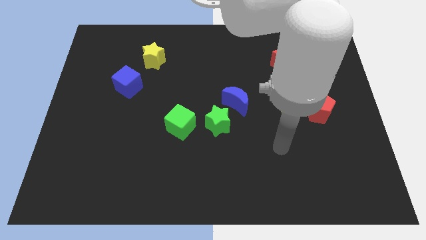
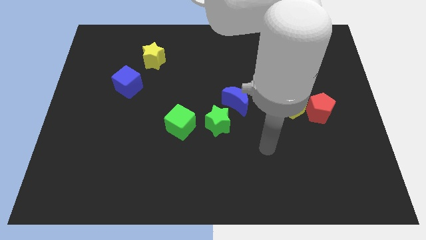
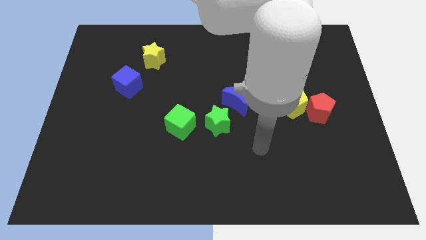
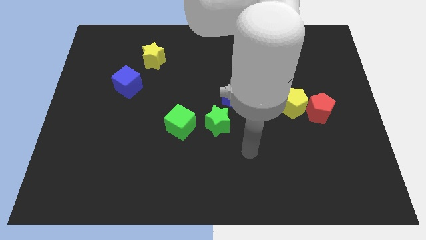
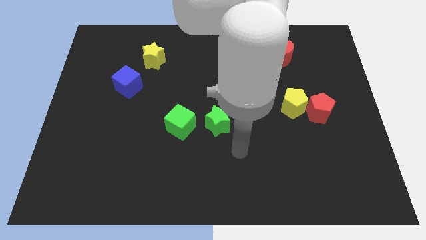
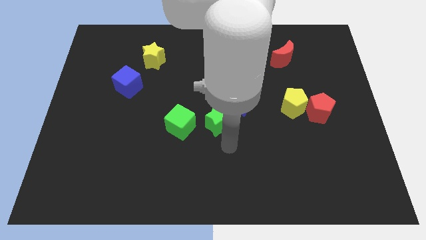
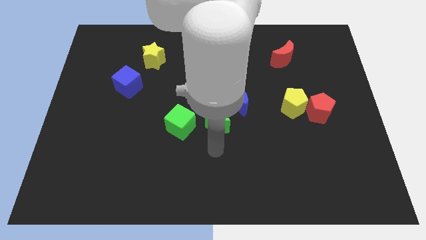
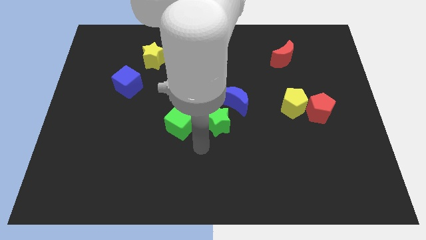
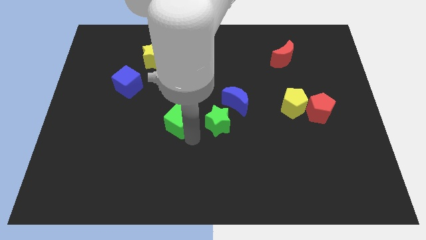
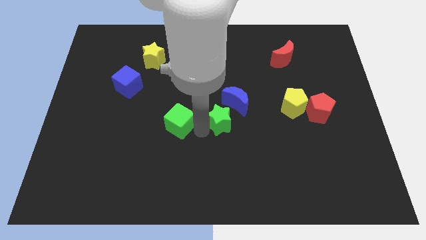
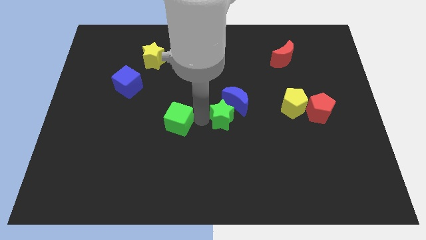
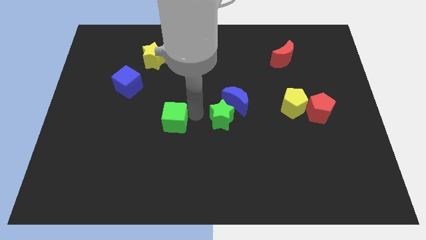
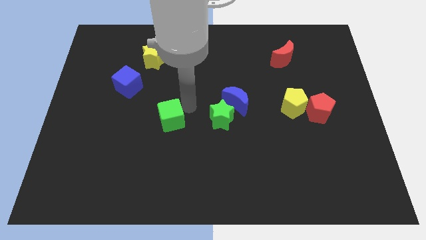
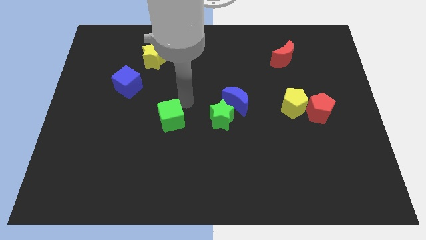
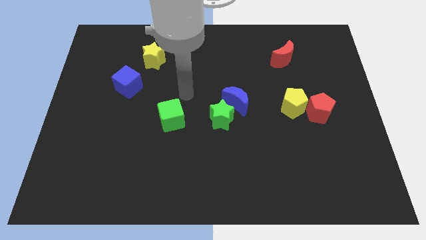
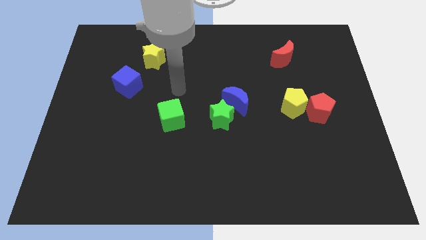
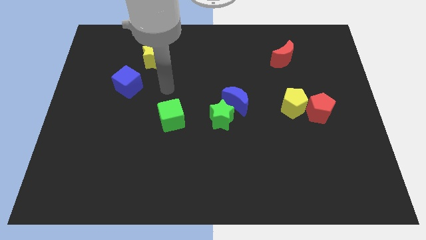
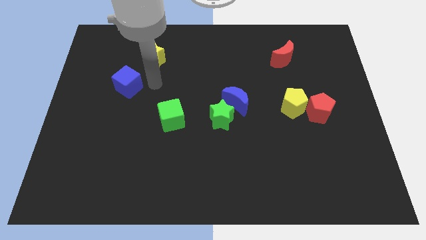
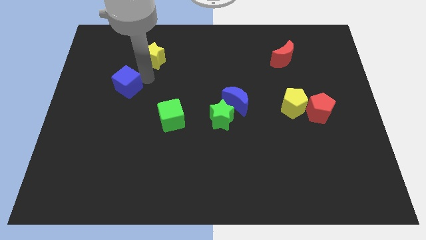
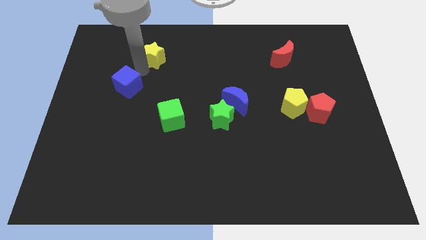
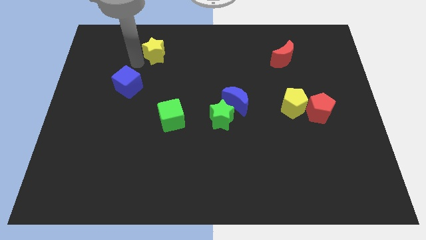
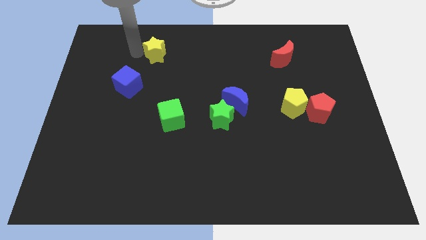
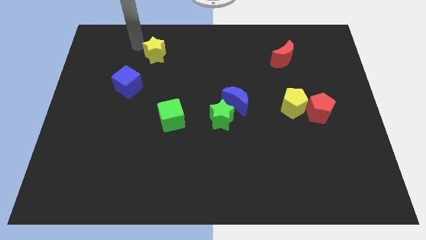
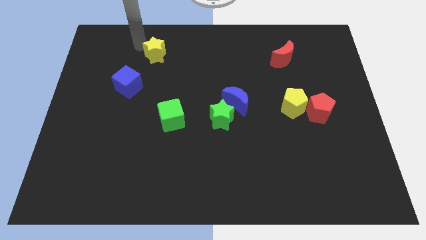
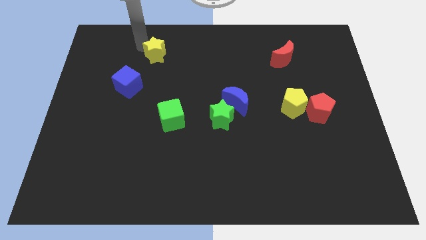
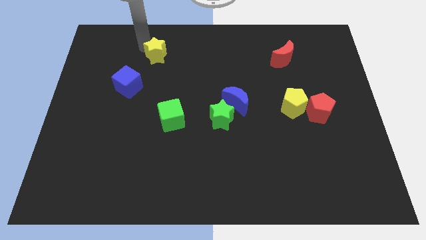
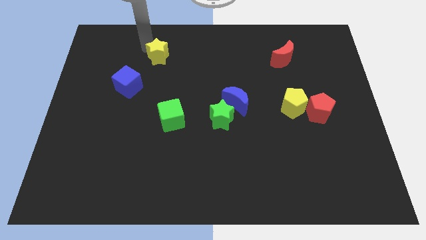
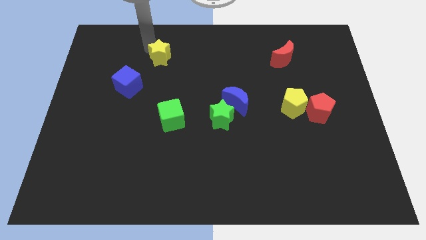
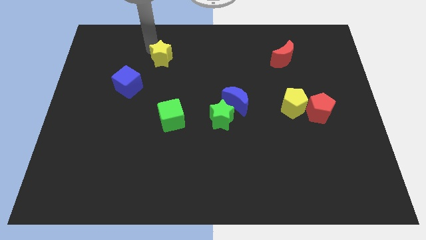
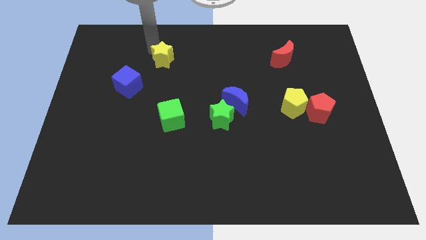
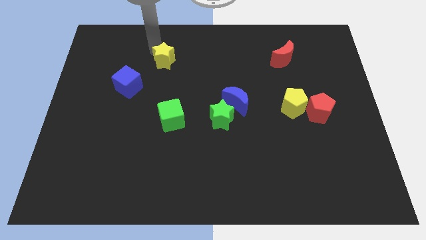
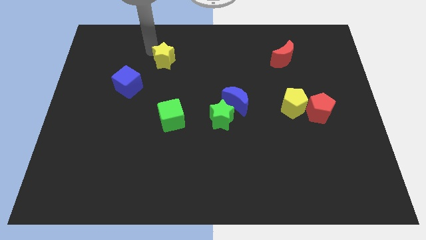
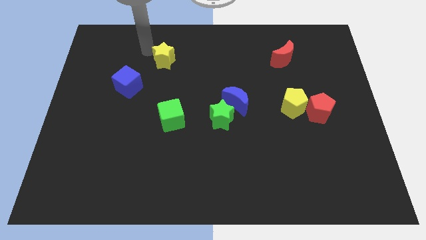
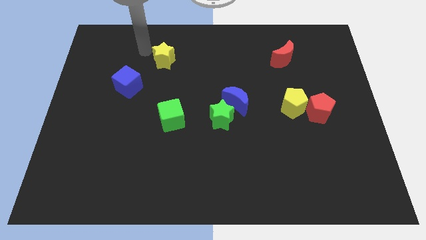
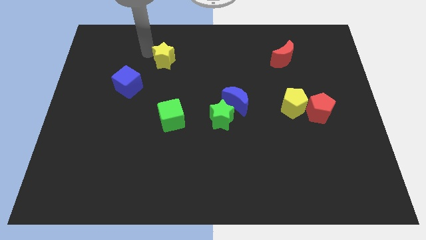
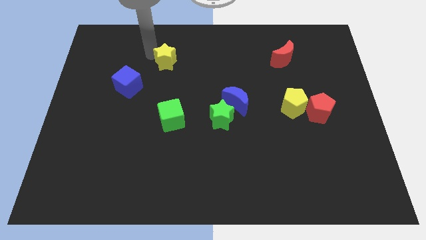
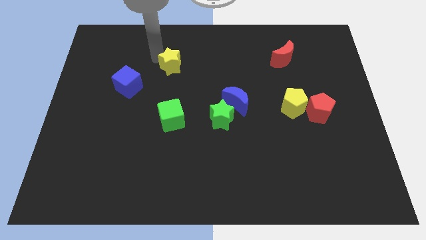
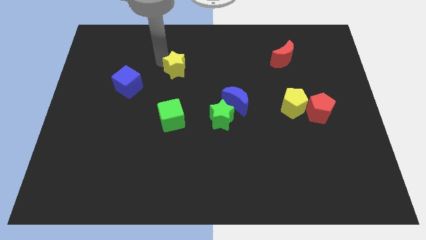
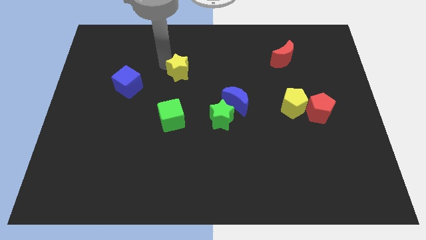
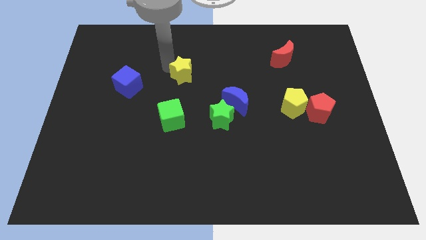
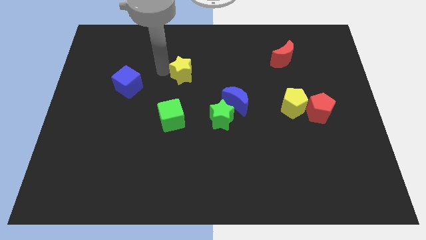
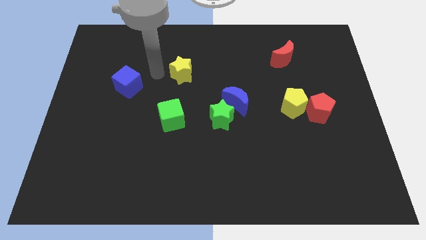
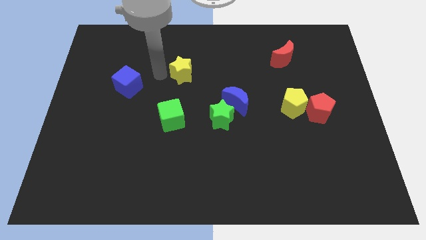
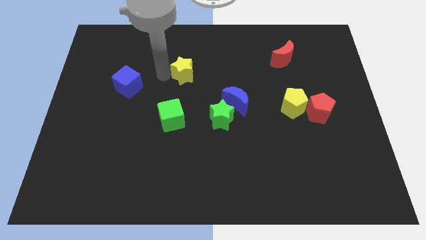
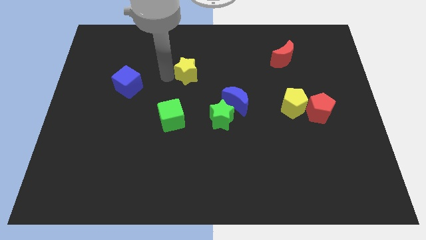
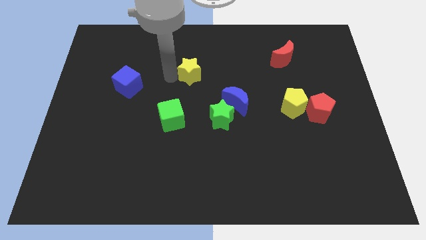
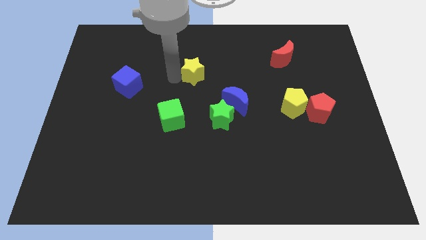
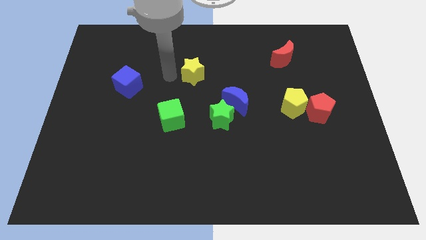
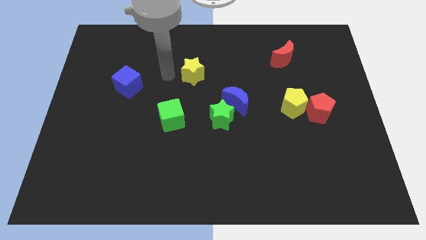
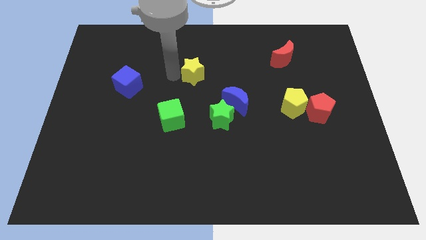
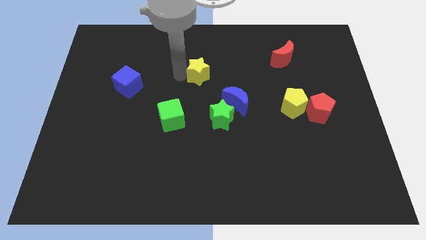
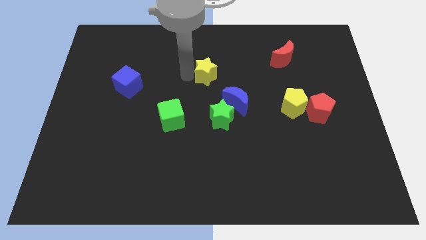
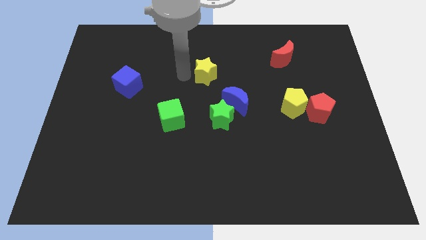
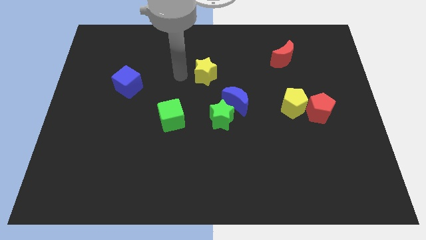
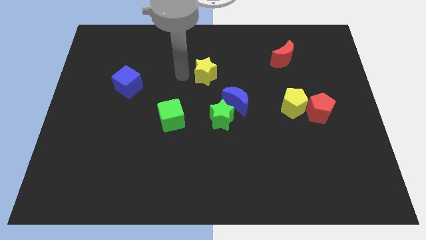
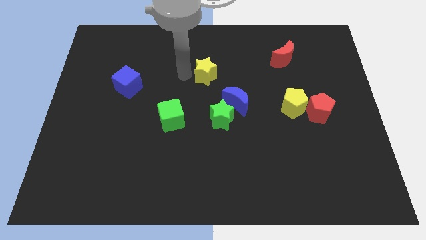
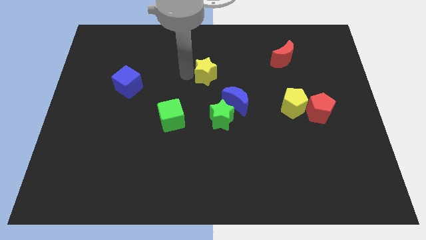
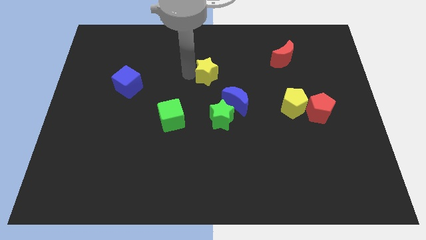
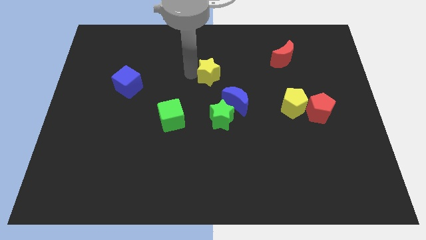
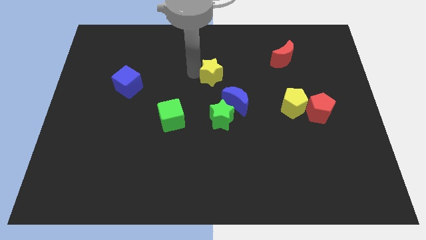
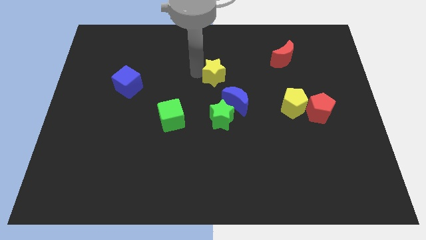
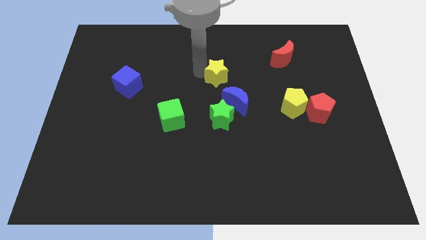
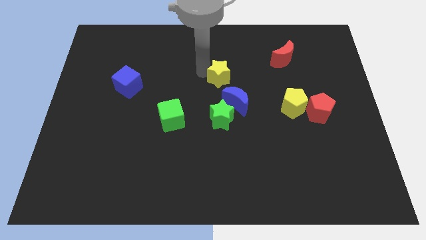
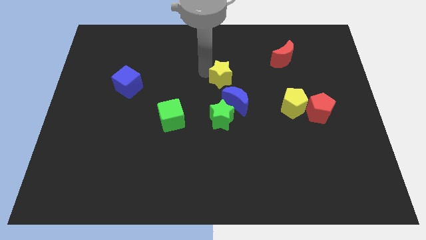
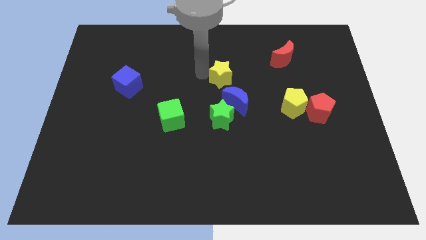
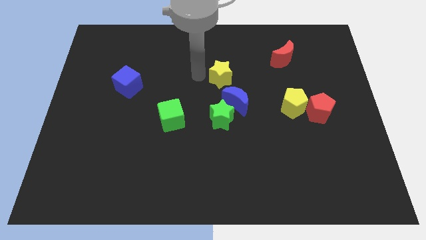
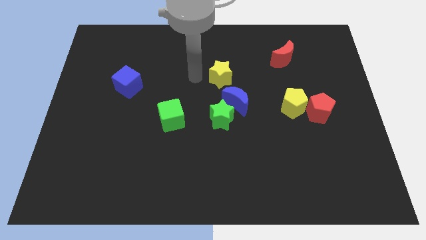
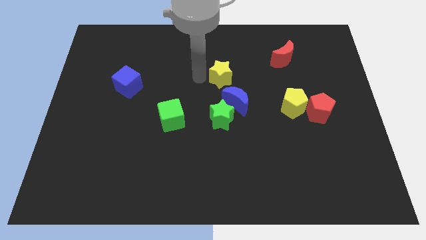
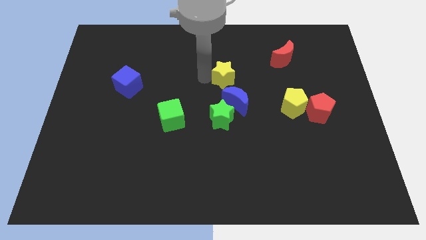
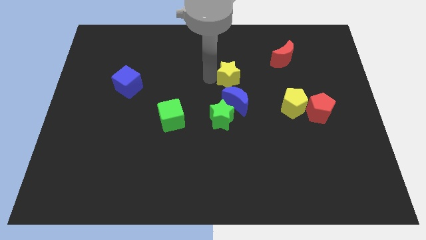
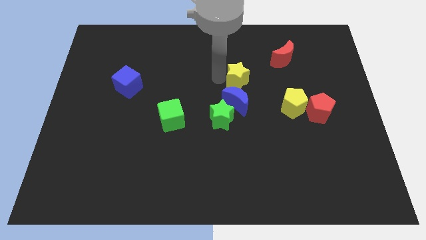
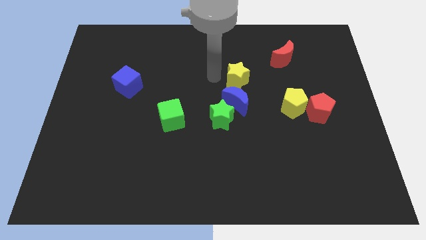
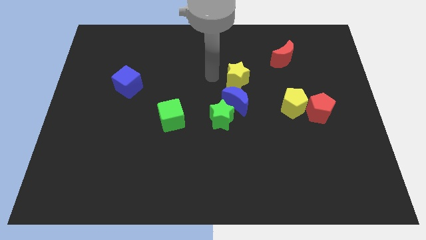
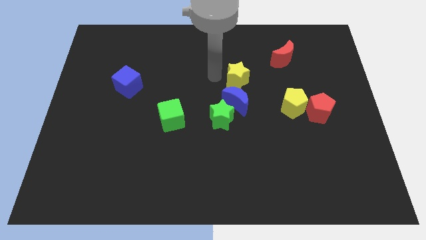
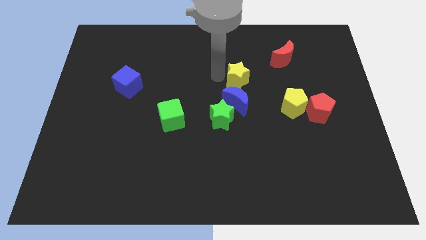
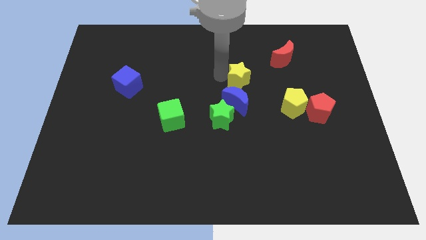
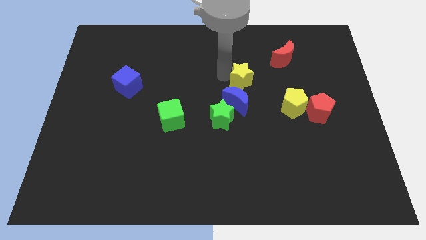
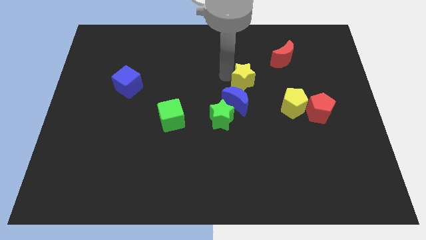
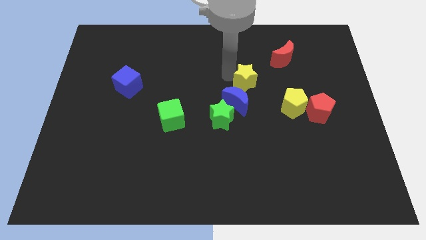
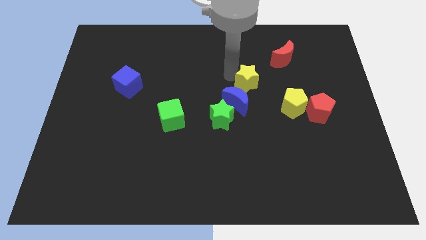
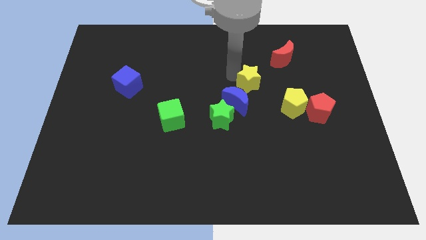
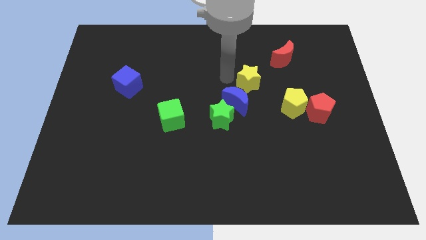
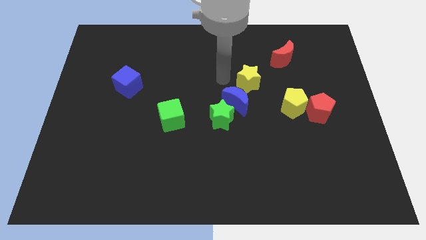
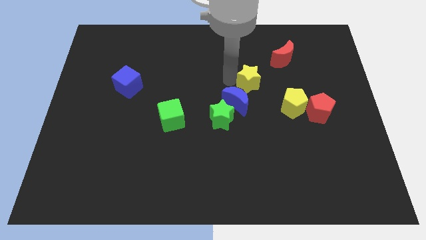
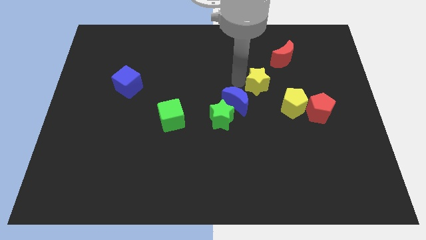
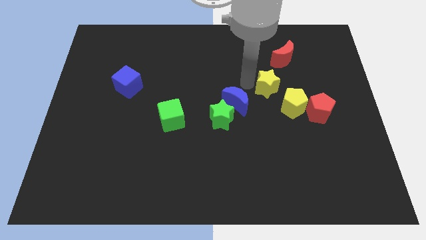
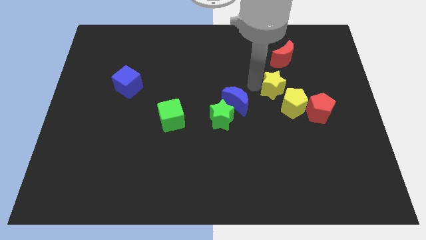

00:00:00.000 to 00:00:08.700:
slide the yellow star to the bottom of the red moon
